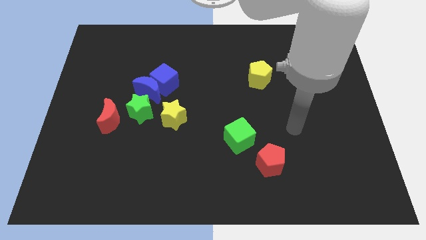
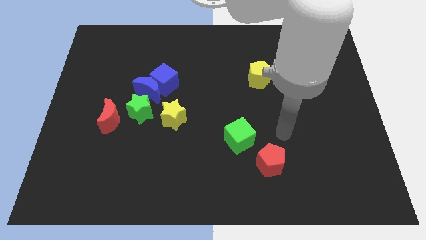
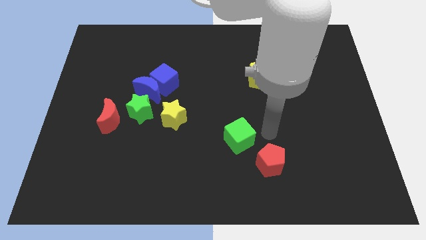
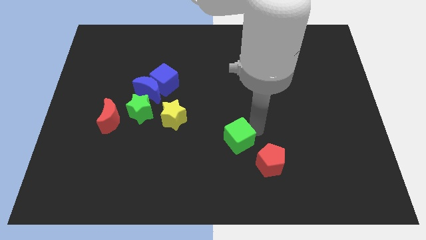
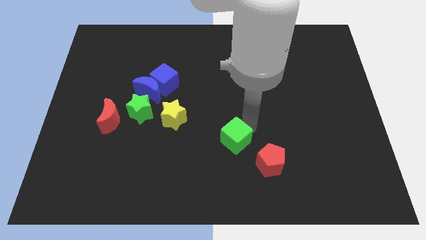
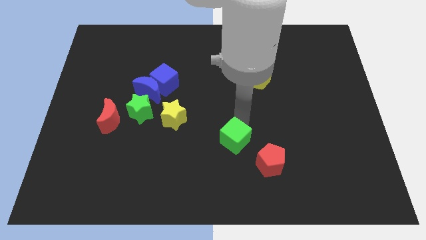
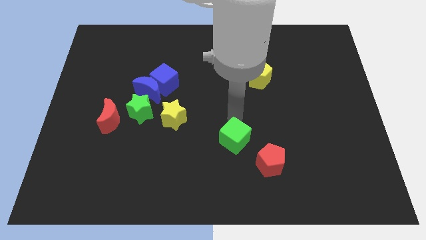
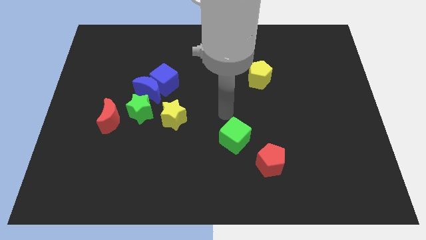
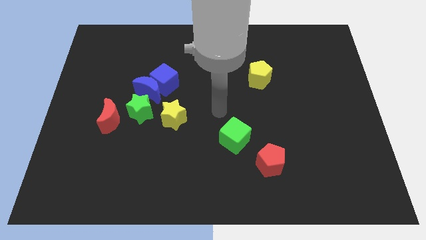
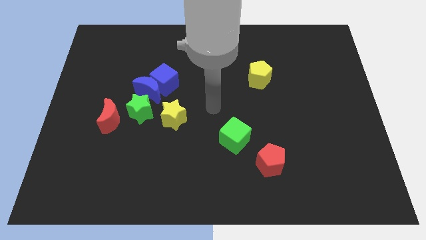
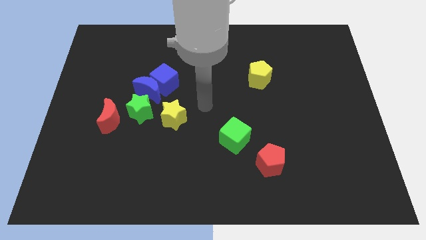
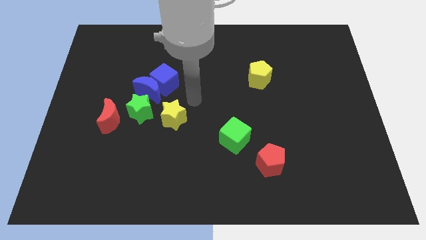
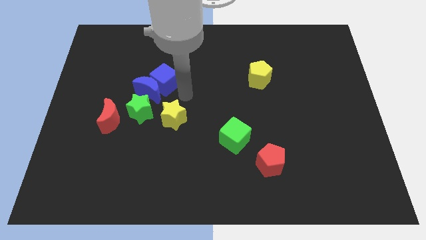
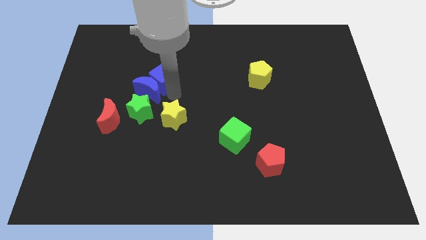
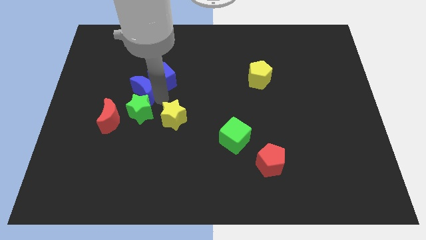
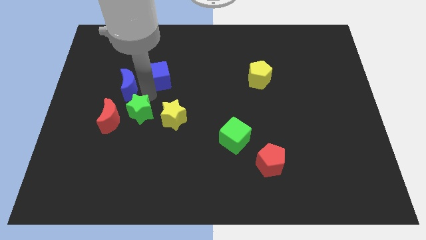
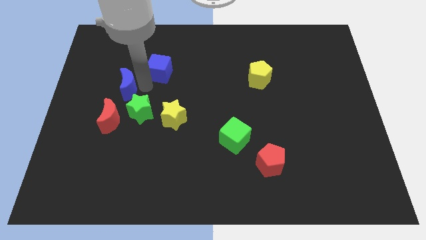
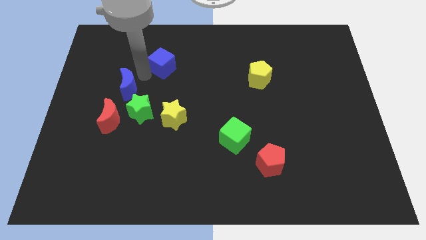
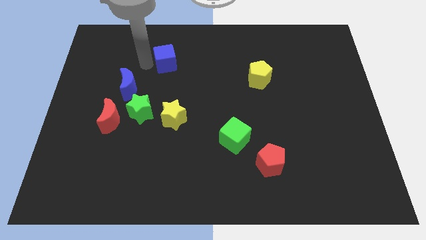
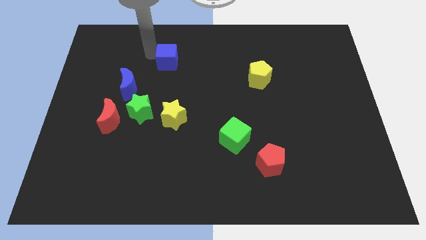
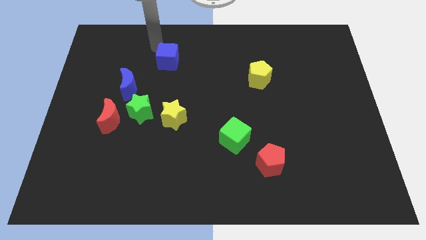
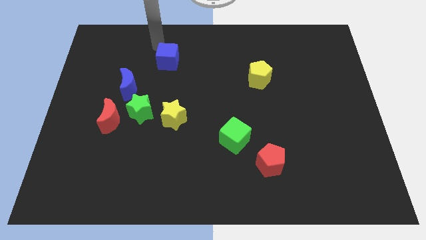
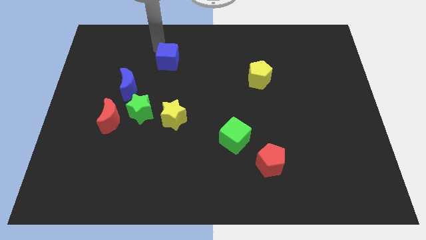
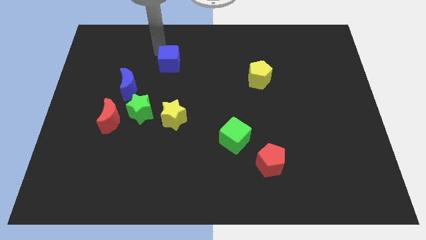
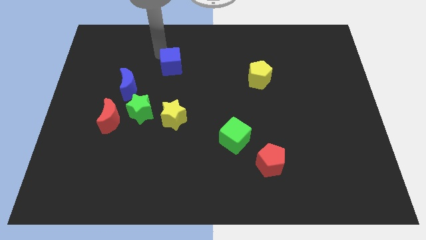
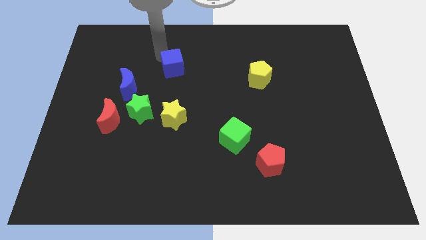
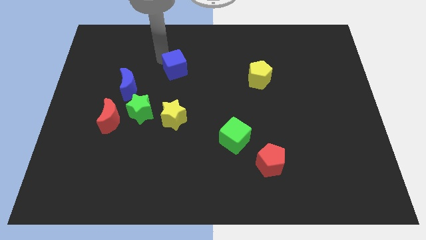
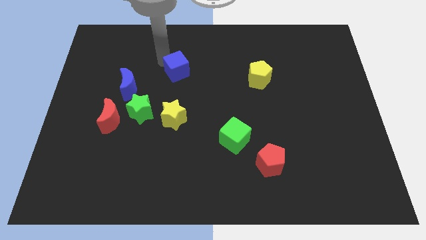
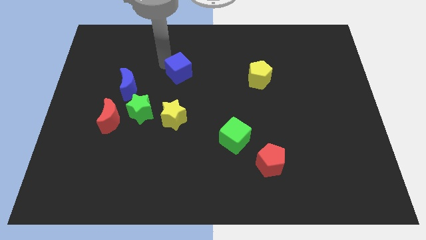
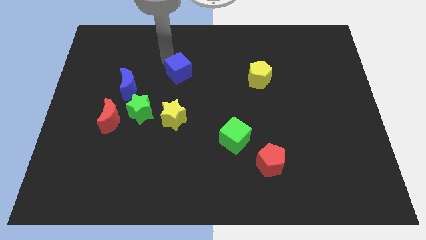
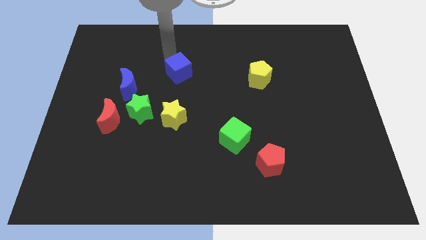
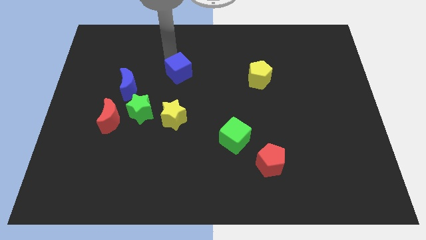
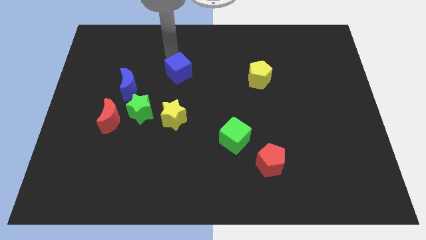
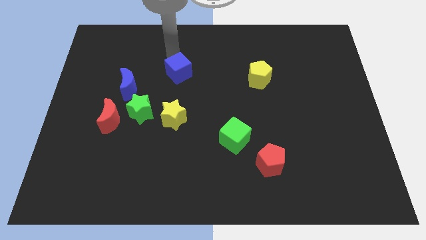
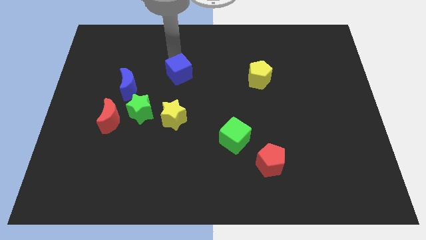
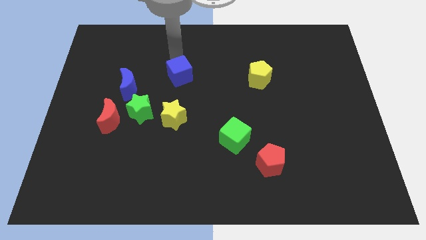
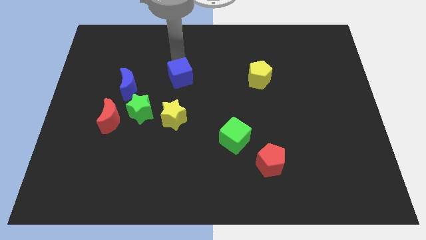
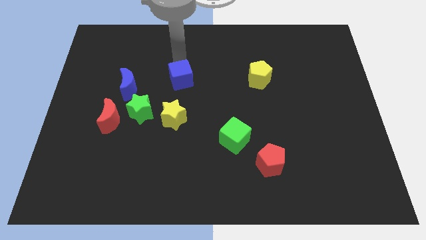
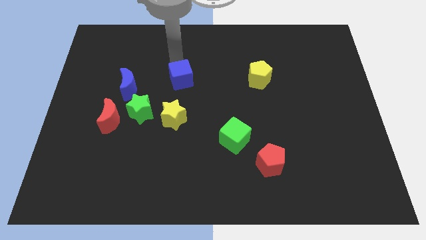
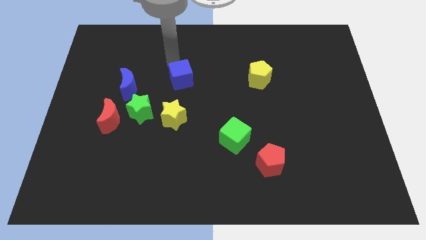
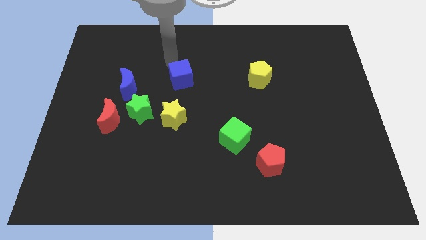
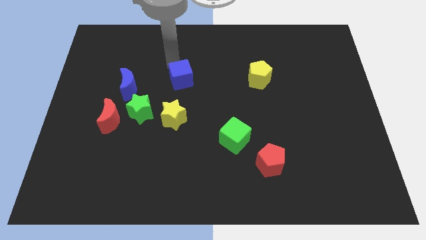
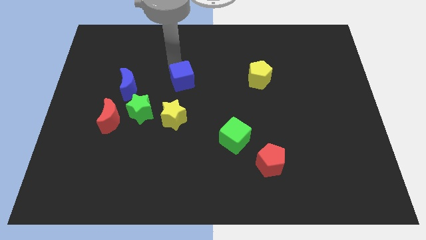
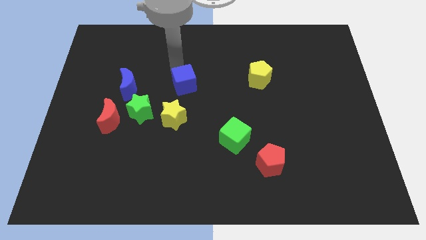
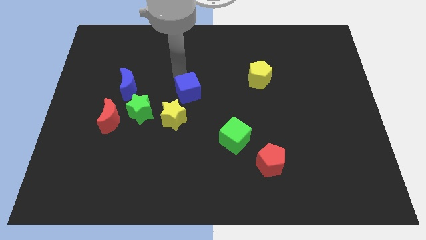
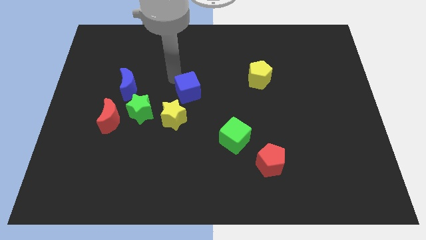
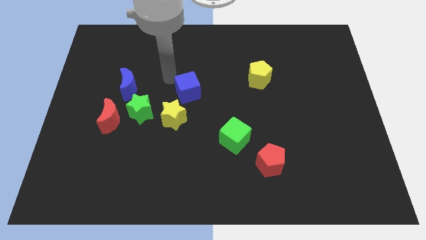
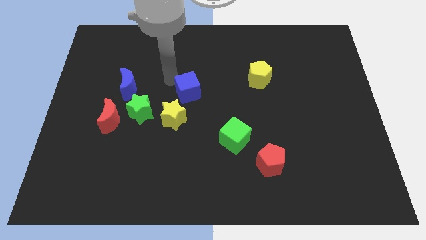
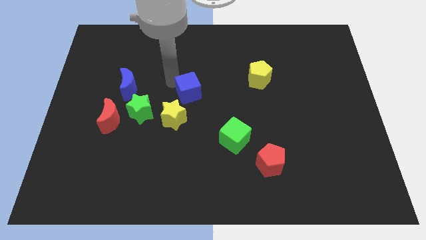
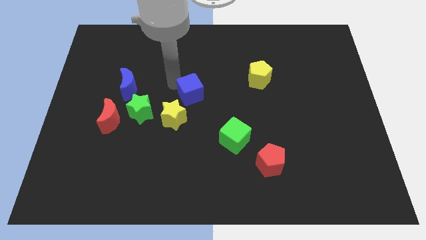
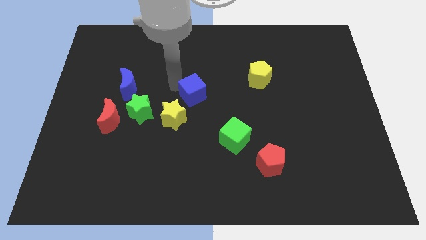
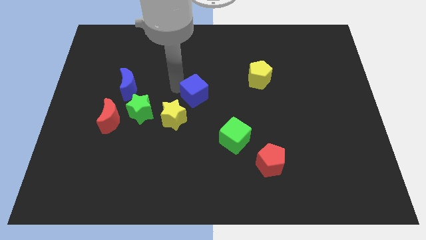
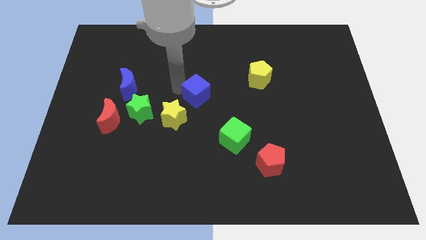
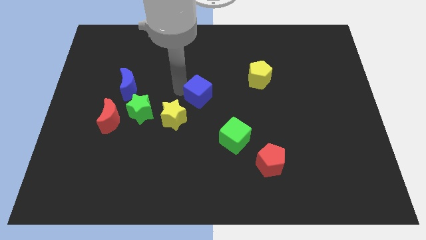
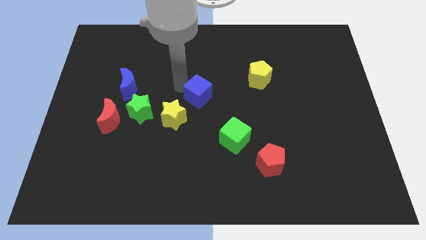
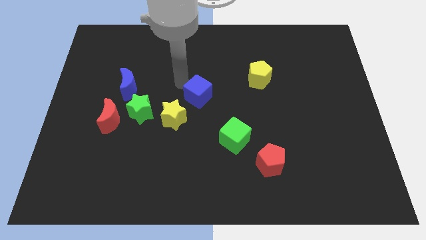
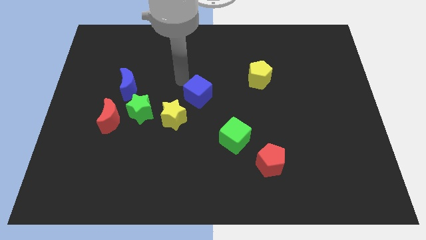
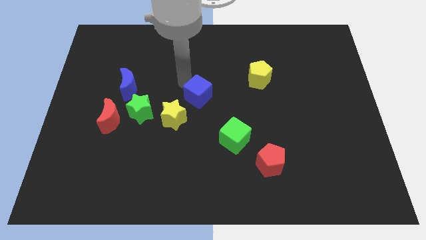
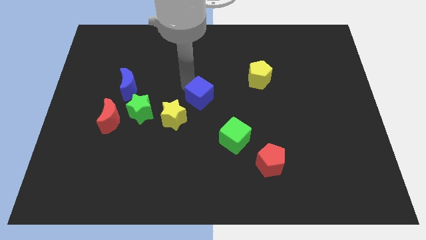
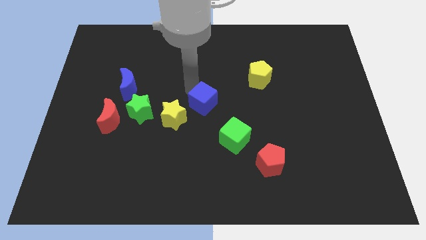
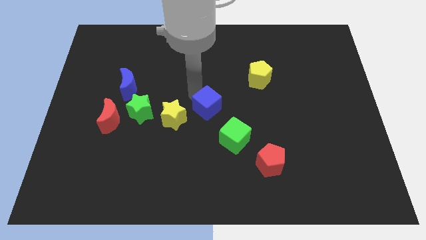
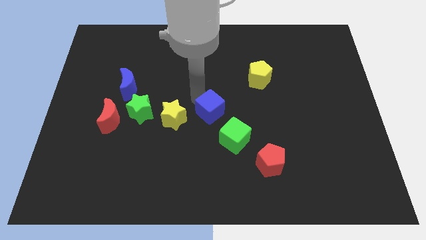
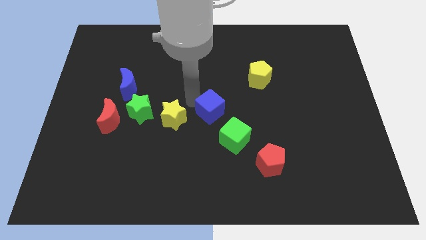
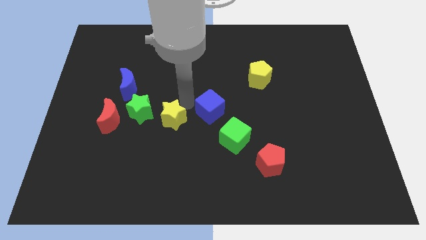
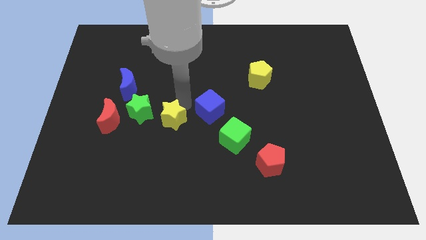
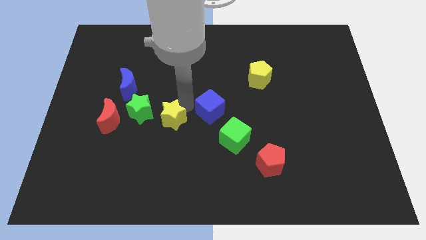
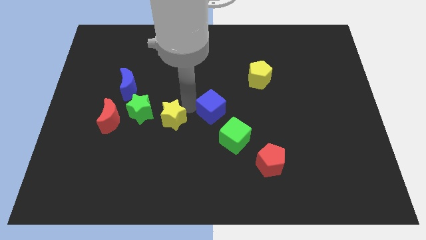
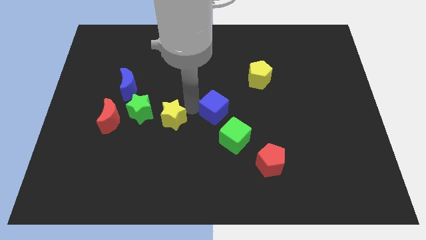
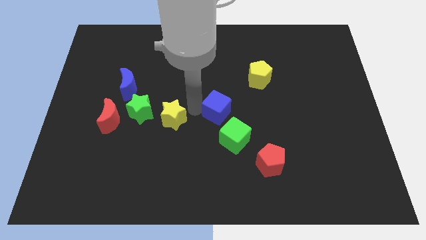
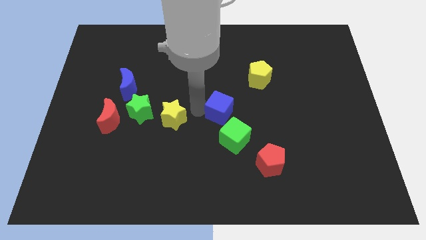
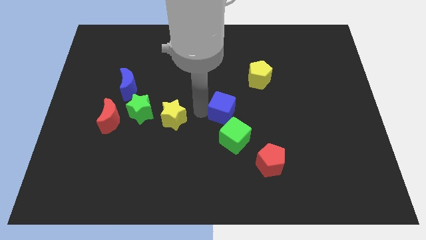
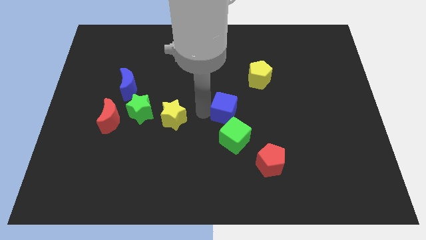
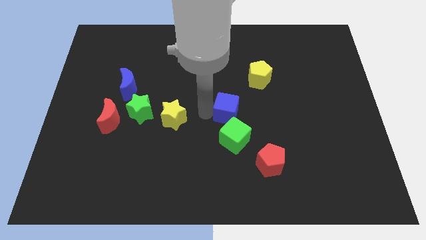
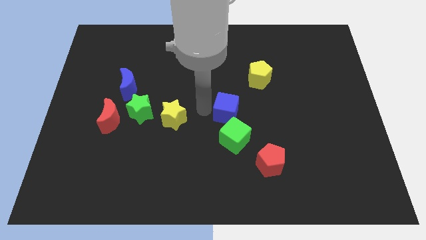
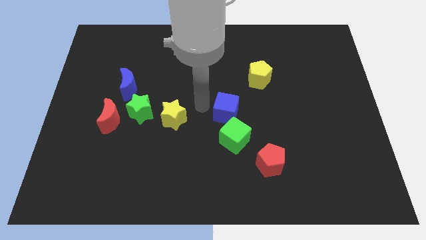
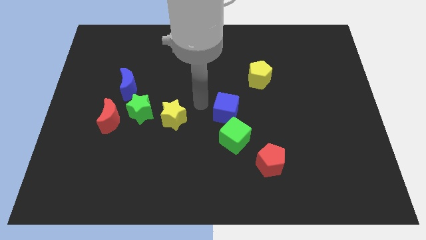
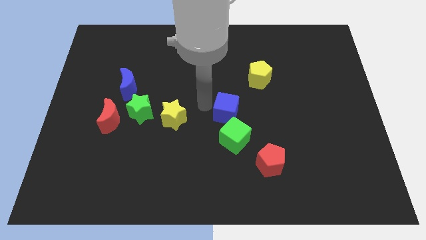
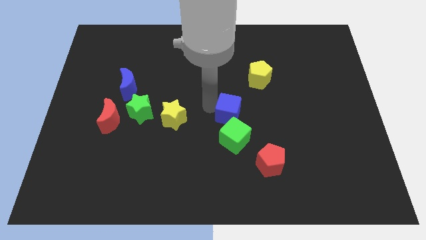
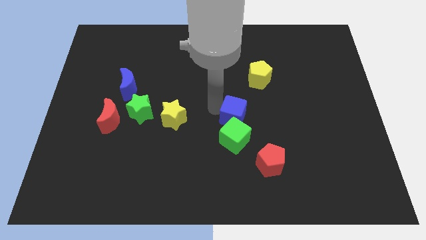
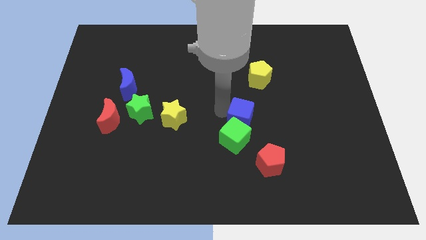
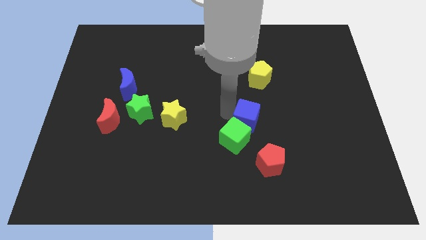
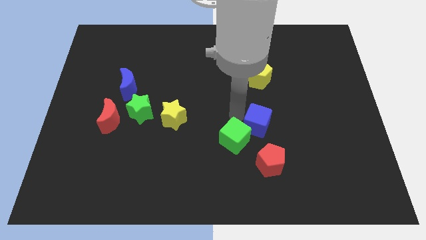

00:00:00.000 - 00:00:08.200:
move the blue cube just right of the green cube
